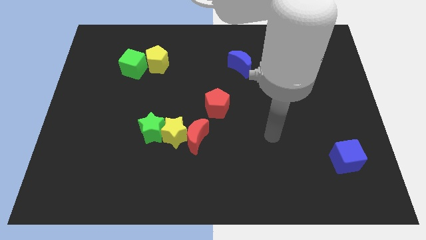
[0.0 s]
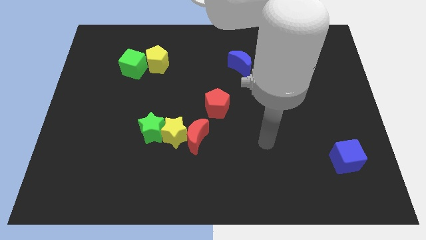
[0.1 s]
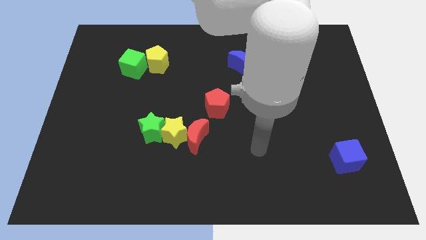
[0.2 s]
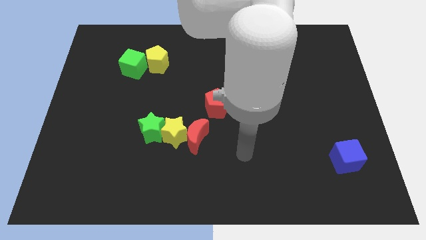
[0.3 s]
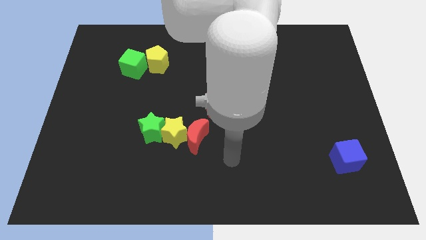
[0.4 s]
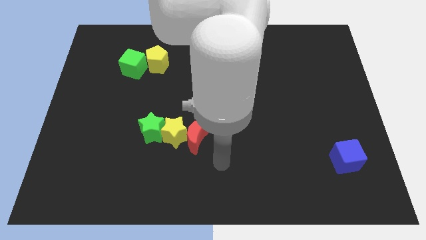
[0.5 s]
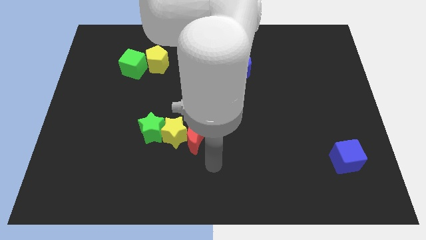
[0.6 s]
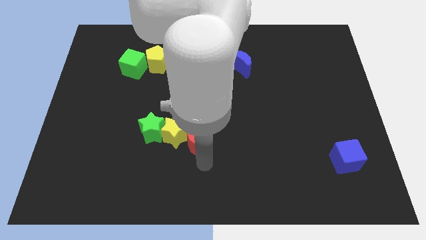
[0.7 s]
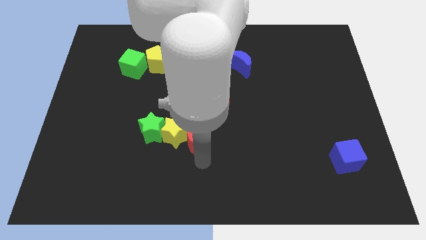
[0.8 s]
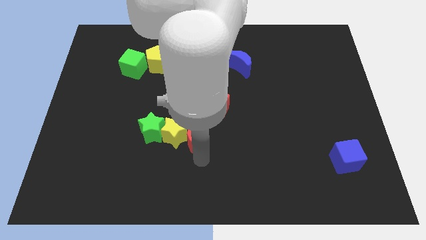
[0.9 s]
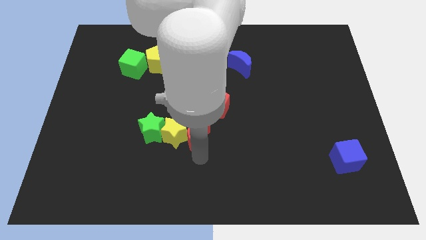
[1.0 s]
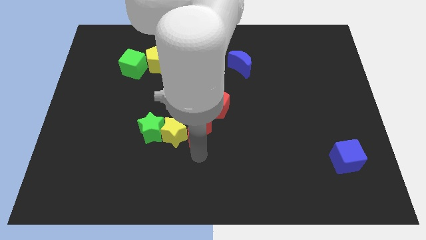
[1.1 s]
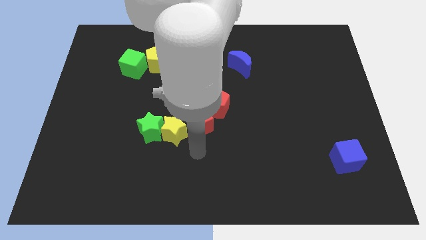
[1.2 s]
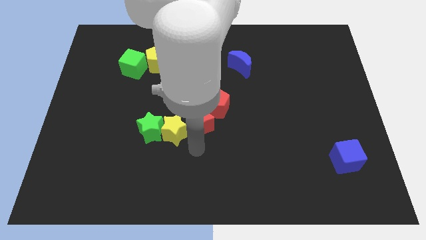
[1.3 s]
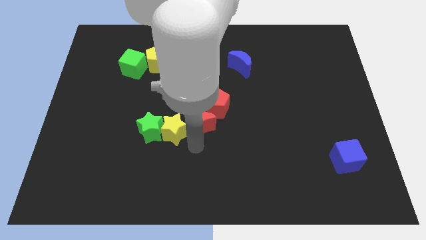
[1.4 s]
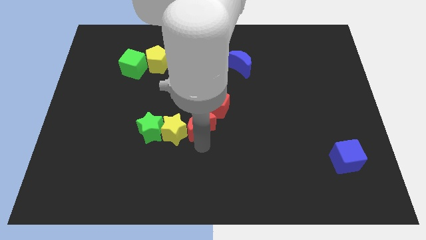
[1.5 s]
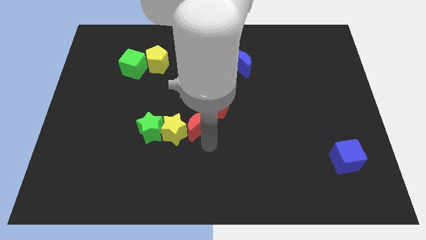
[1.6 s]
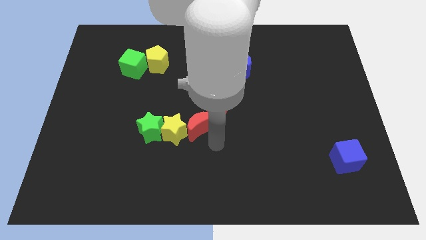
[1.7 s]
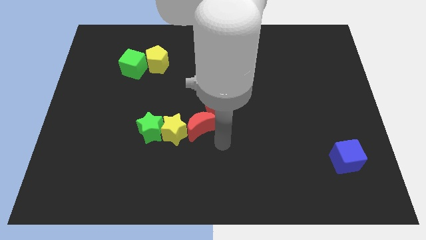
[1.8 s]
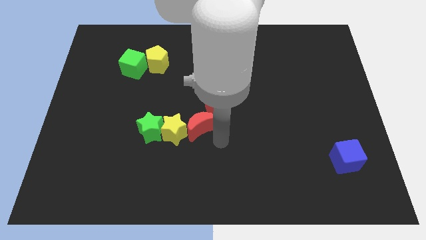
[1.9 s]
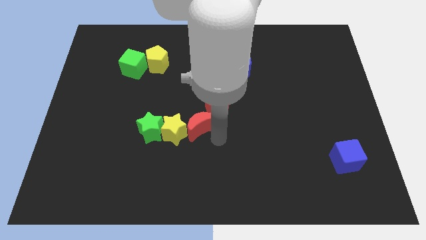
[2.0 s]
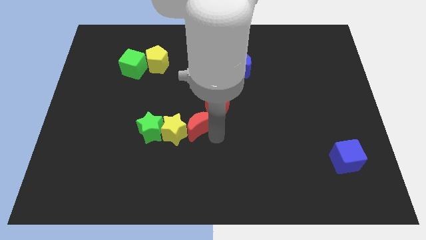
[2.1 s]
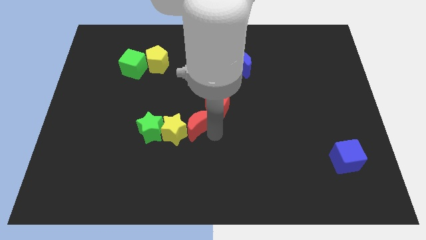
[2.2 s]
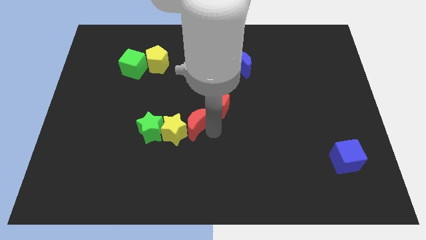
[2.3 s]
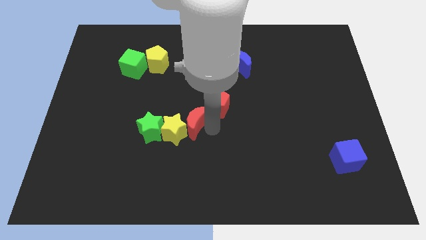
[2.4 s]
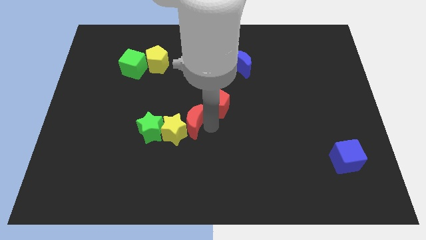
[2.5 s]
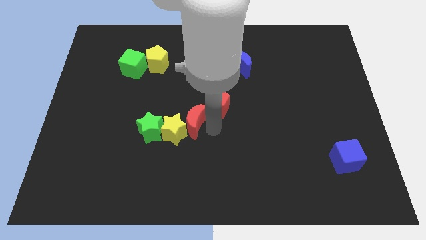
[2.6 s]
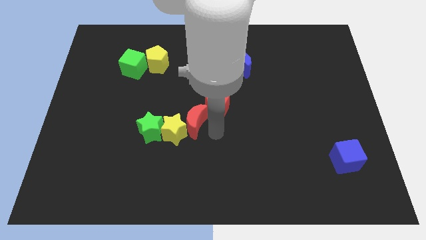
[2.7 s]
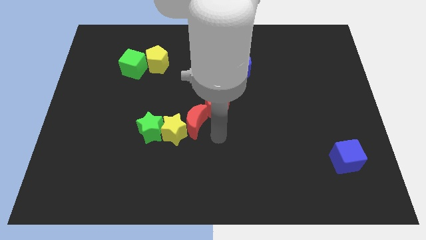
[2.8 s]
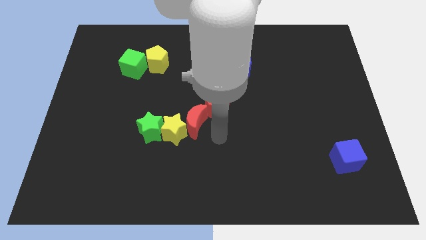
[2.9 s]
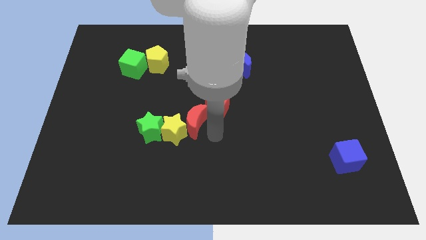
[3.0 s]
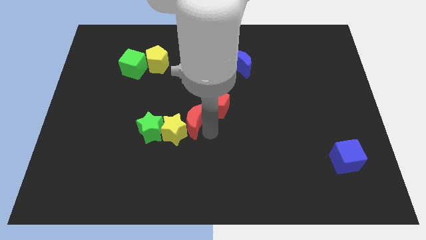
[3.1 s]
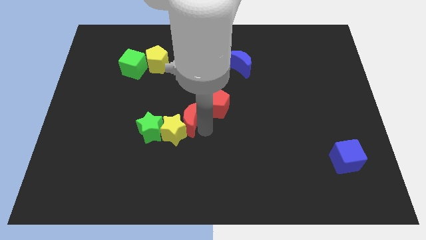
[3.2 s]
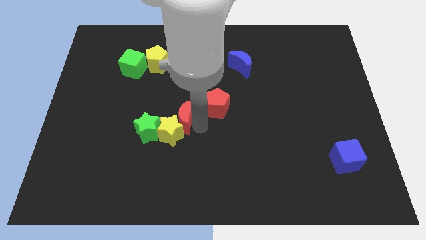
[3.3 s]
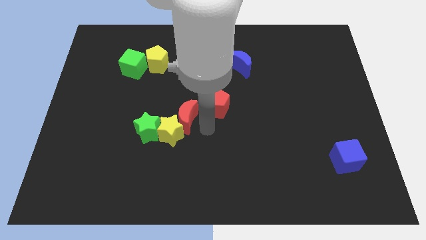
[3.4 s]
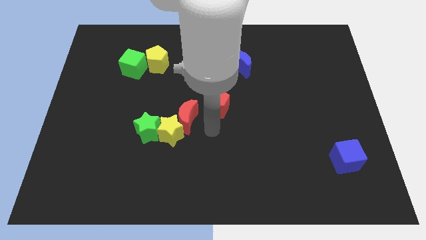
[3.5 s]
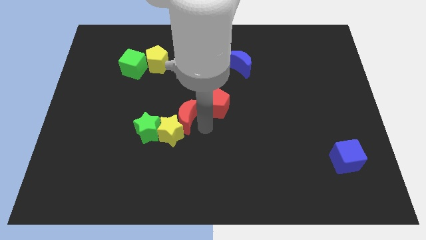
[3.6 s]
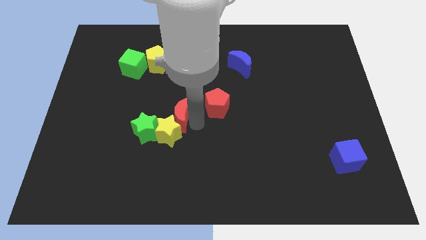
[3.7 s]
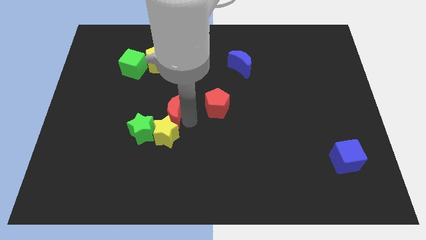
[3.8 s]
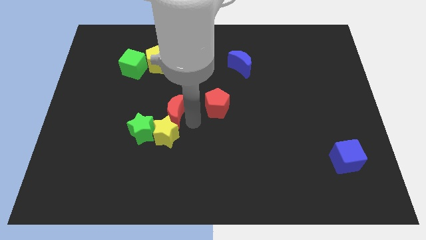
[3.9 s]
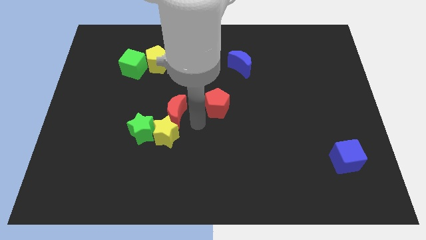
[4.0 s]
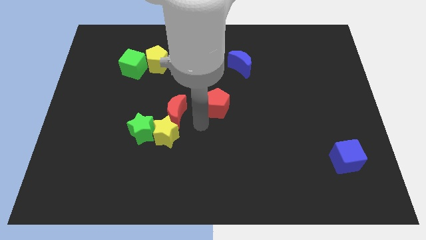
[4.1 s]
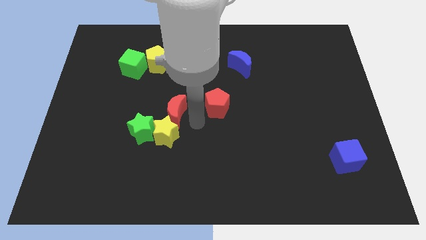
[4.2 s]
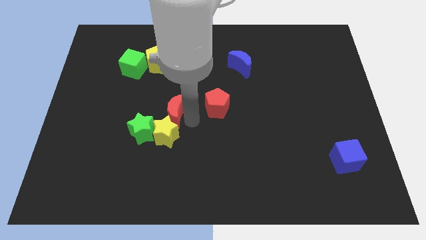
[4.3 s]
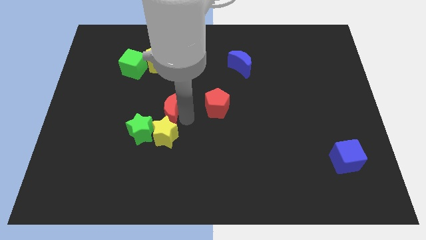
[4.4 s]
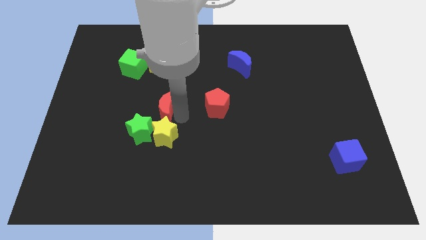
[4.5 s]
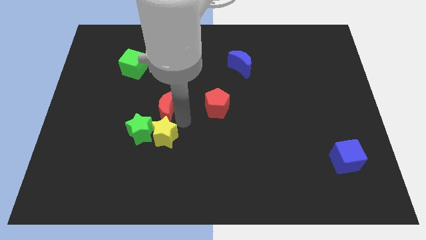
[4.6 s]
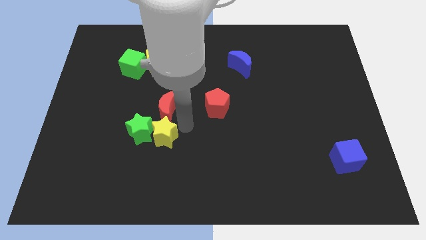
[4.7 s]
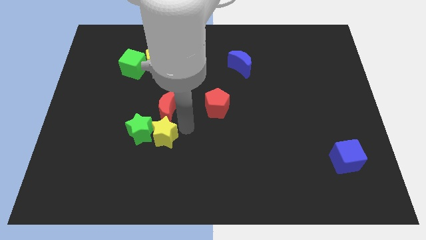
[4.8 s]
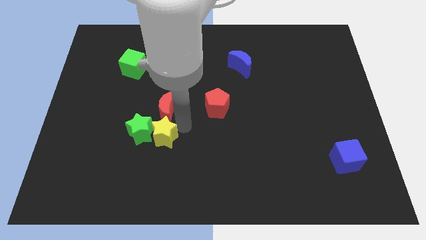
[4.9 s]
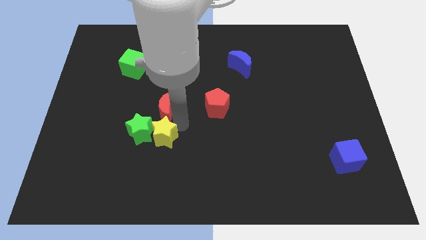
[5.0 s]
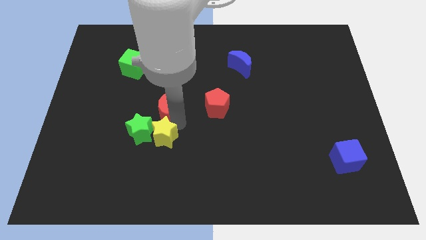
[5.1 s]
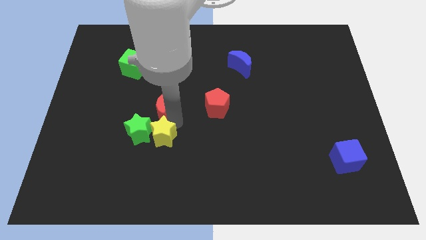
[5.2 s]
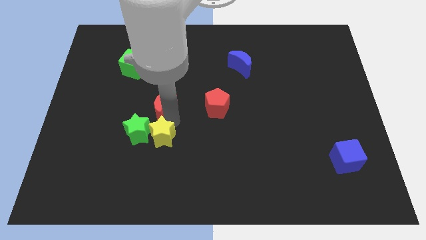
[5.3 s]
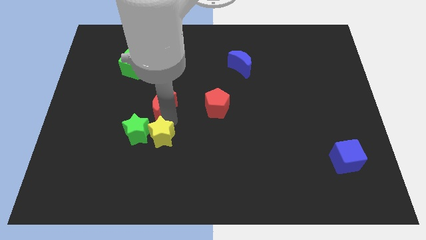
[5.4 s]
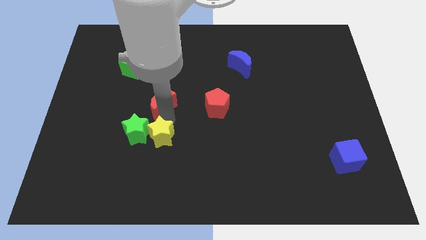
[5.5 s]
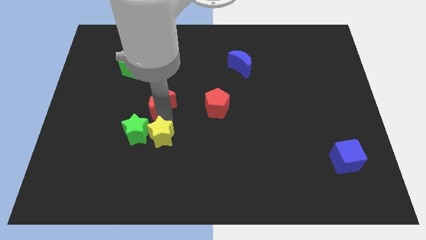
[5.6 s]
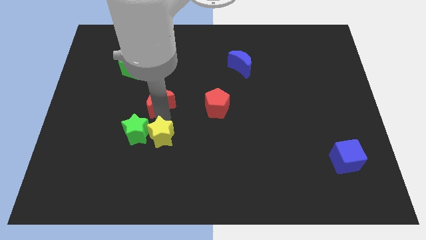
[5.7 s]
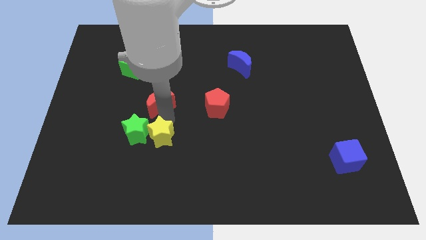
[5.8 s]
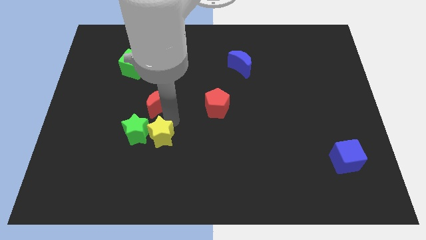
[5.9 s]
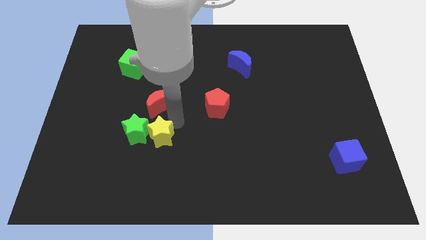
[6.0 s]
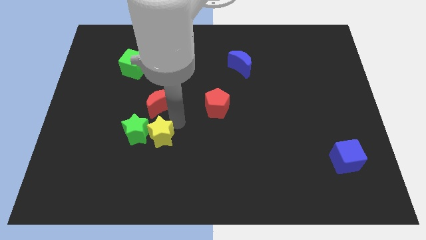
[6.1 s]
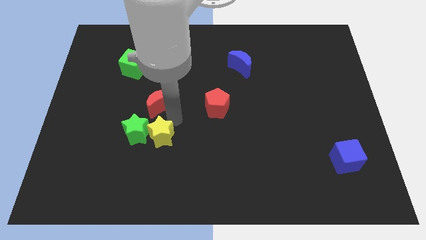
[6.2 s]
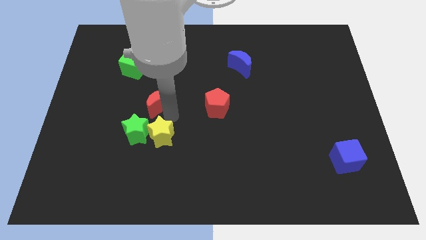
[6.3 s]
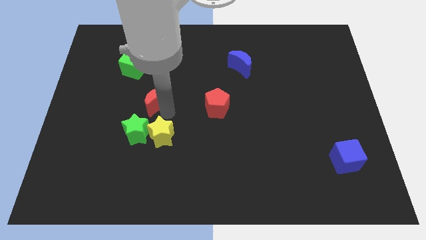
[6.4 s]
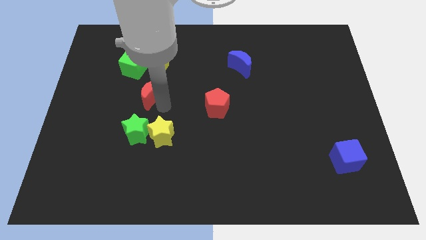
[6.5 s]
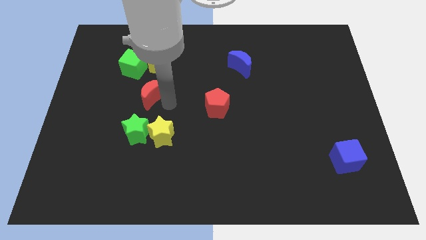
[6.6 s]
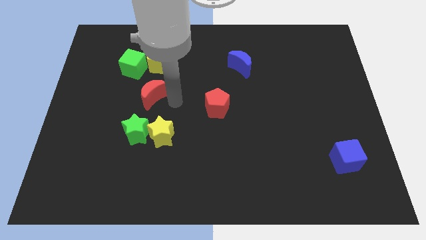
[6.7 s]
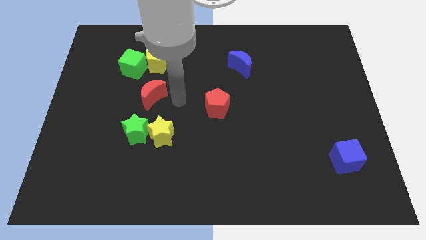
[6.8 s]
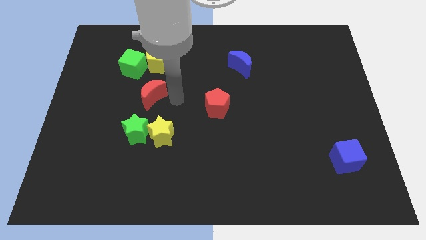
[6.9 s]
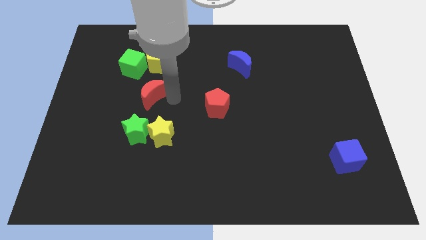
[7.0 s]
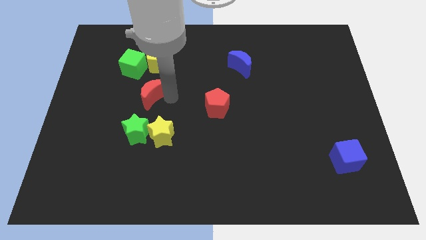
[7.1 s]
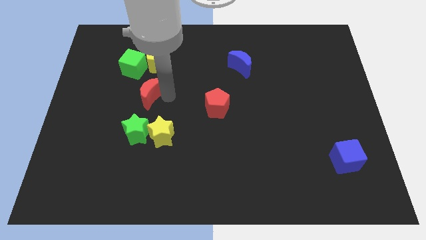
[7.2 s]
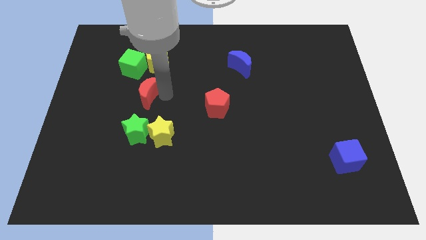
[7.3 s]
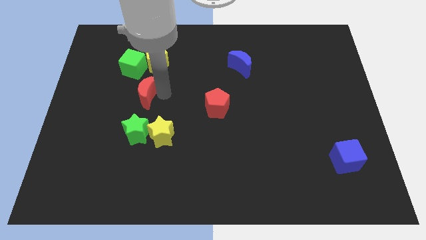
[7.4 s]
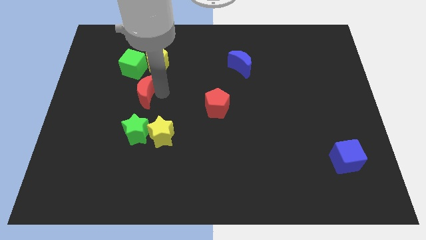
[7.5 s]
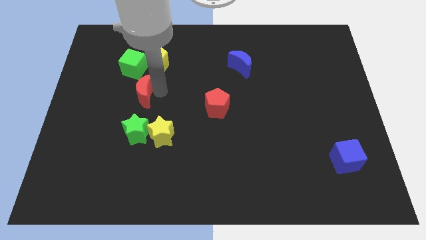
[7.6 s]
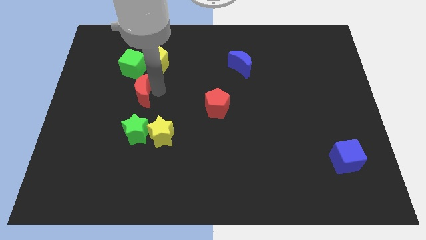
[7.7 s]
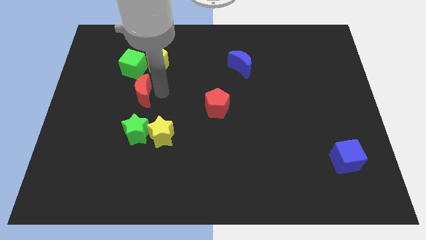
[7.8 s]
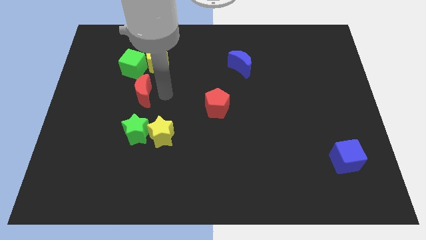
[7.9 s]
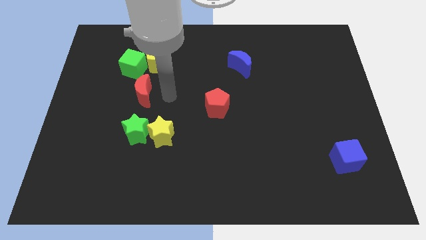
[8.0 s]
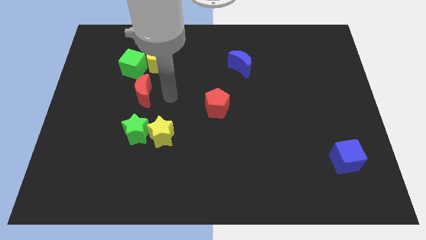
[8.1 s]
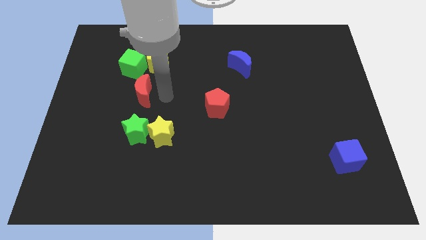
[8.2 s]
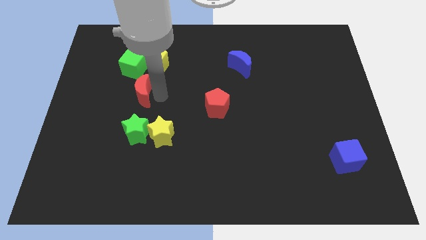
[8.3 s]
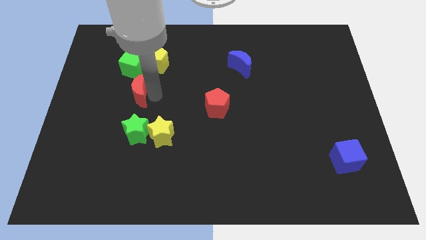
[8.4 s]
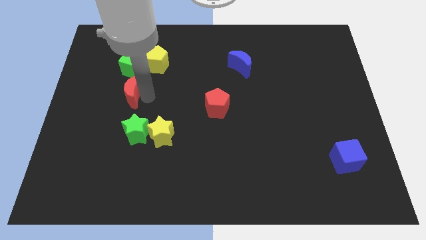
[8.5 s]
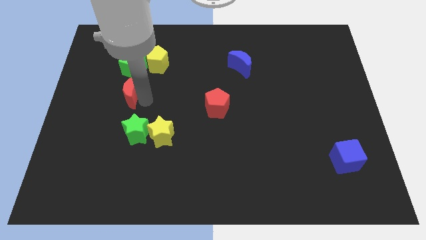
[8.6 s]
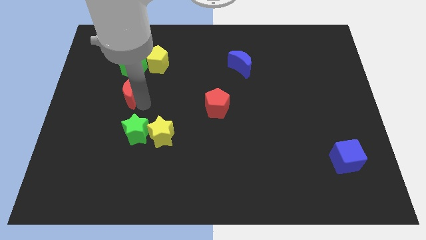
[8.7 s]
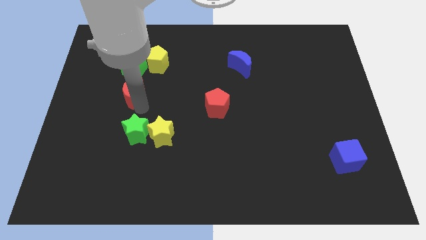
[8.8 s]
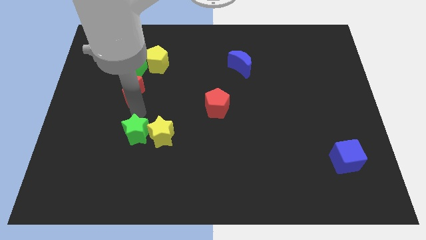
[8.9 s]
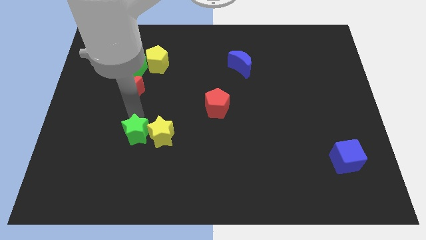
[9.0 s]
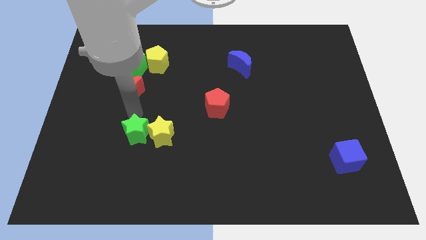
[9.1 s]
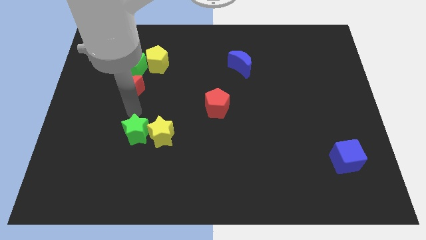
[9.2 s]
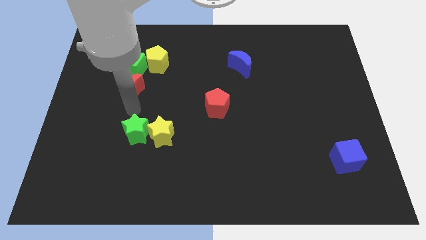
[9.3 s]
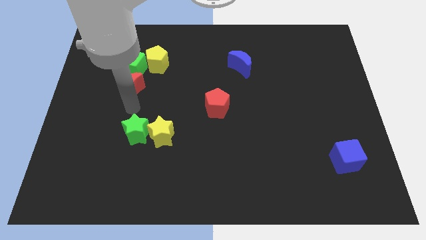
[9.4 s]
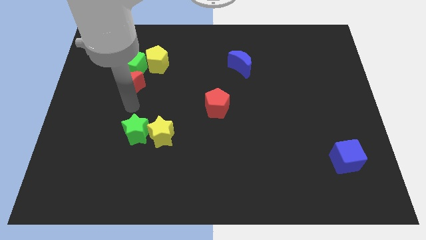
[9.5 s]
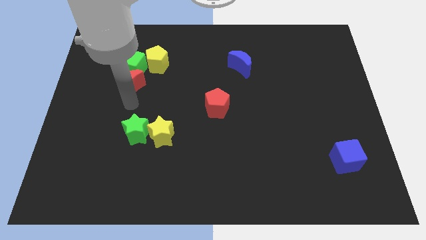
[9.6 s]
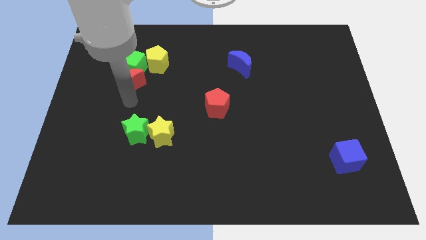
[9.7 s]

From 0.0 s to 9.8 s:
move the red moon towards the green cube
